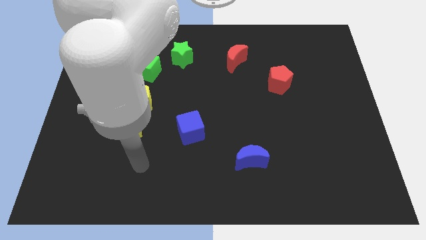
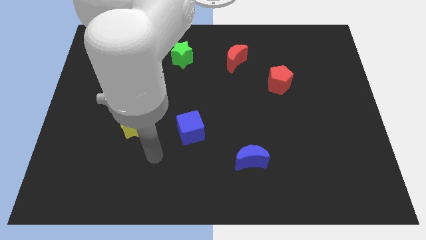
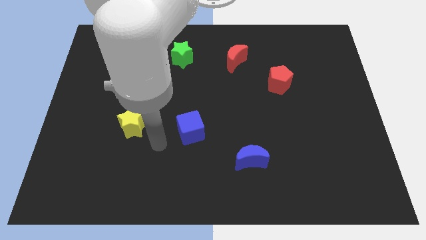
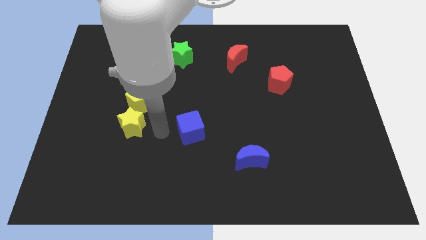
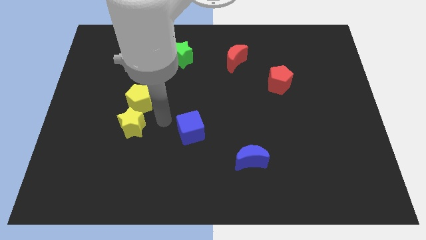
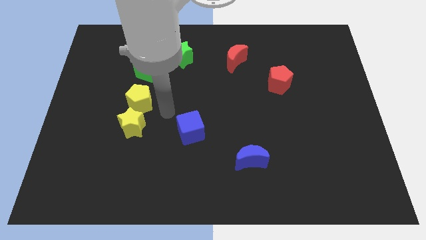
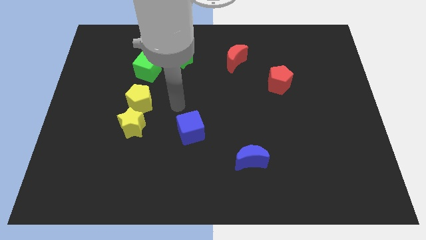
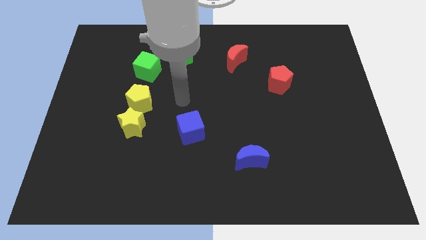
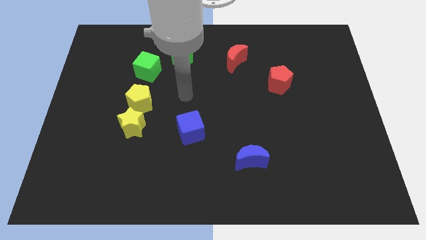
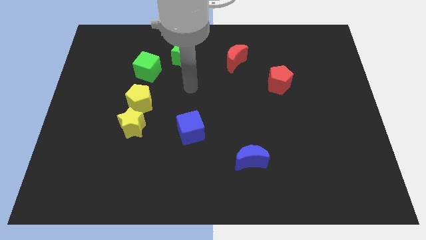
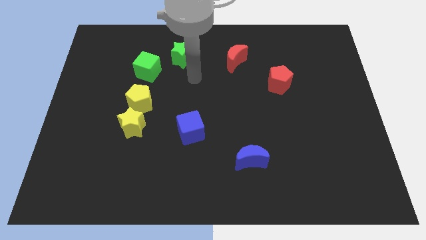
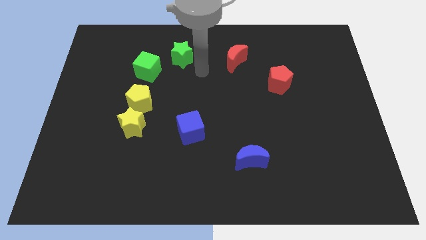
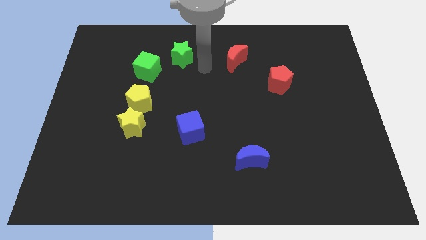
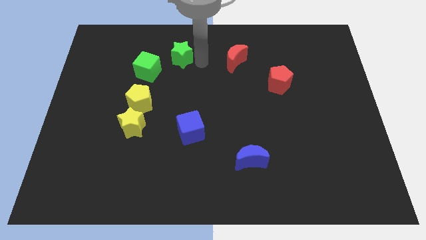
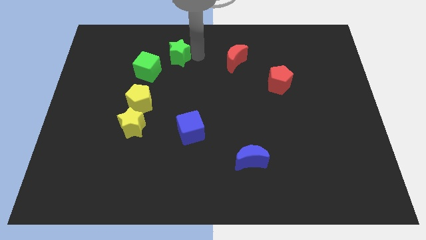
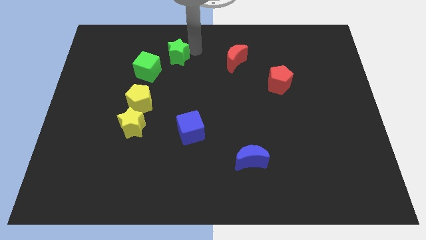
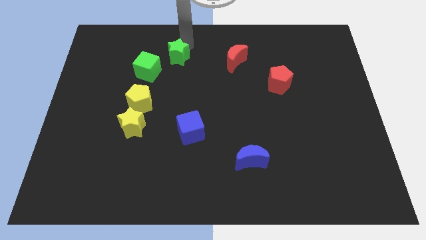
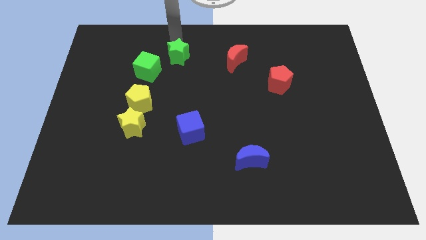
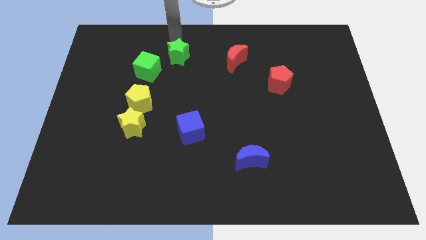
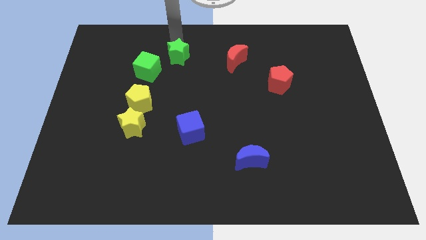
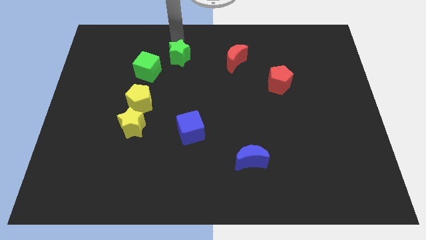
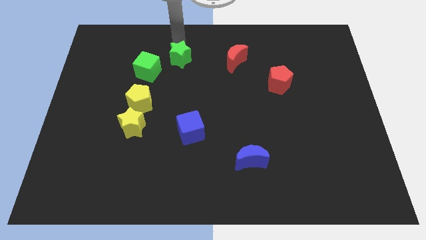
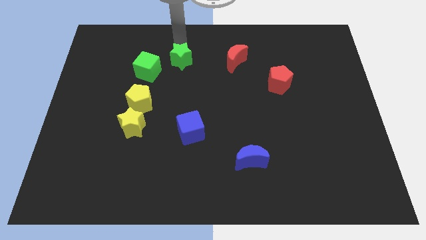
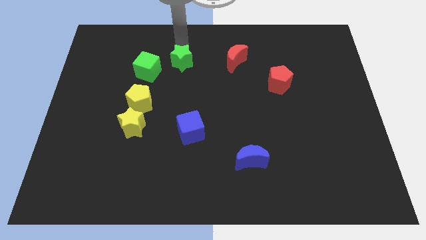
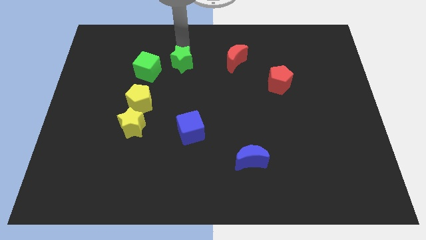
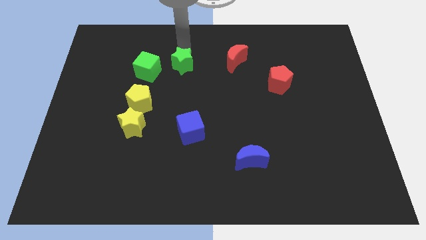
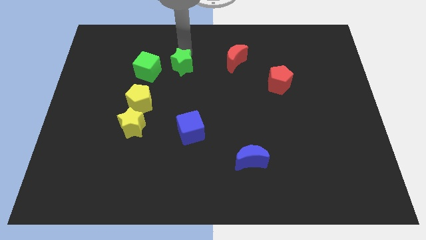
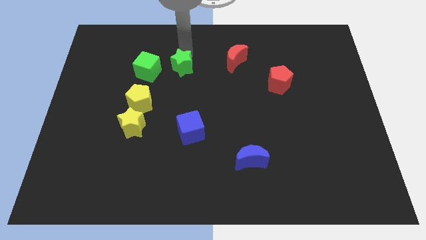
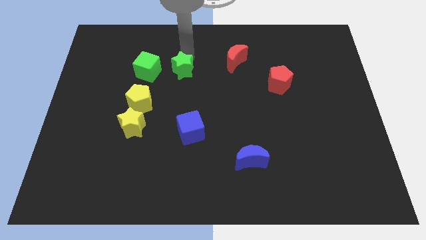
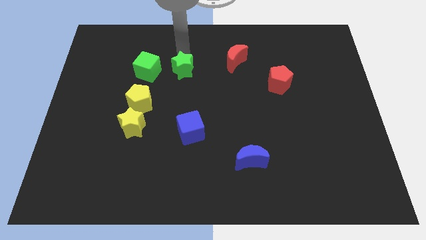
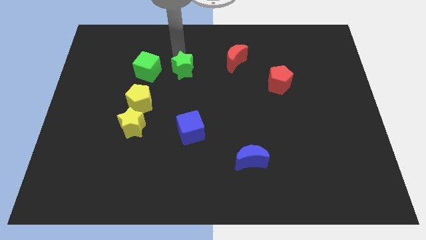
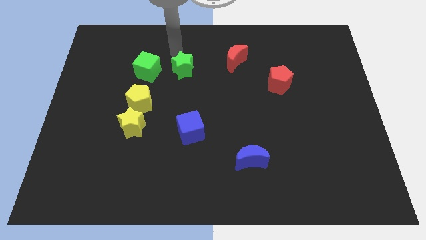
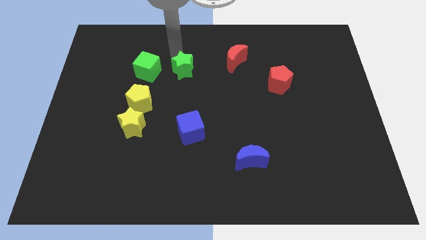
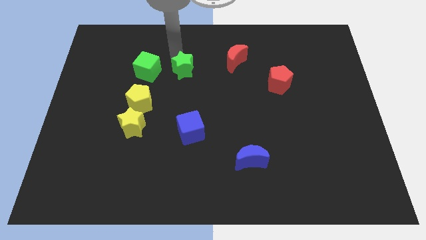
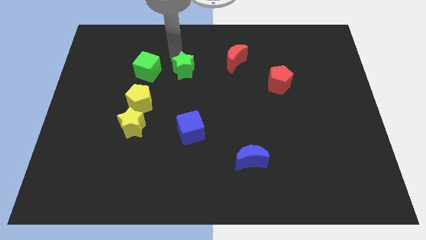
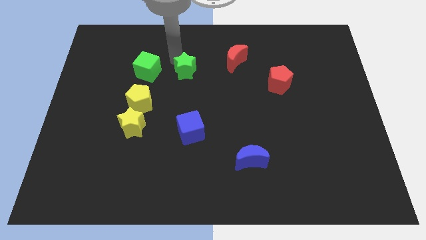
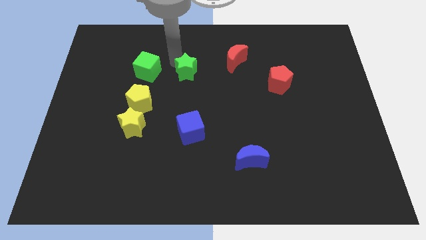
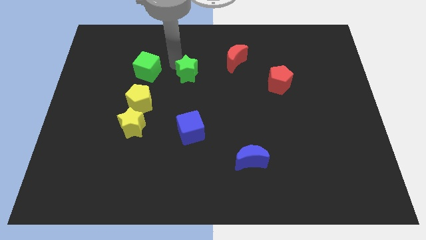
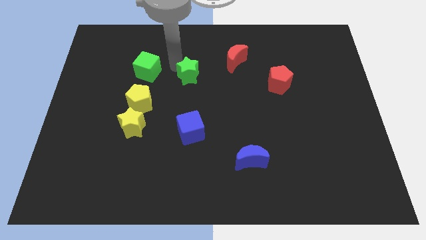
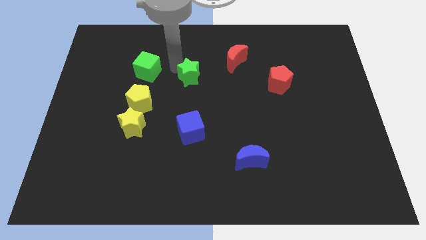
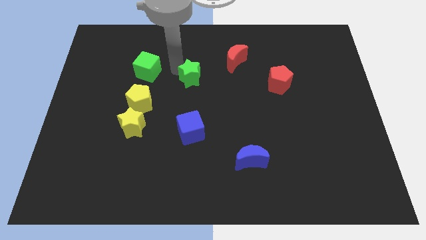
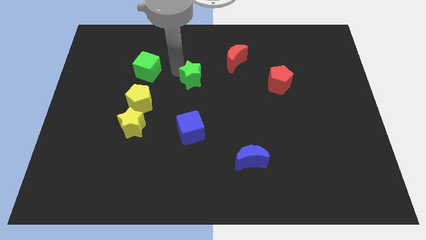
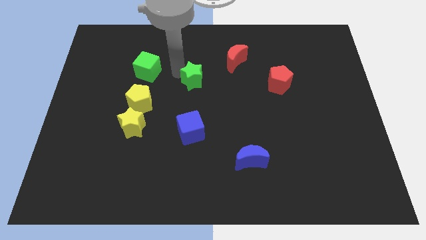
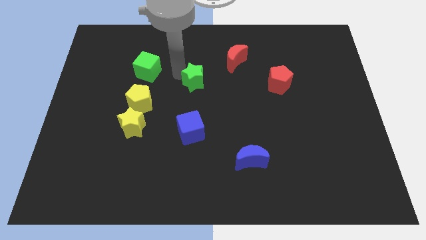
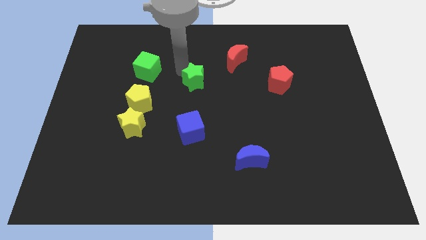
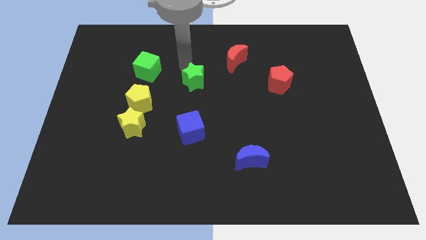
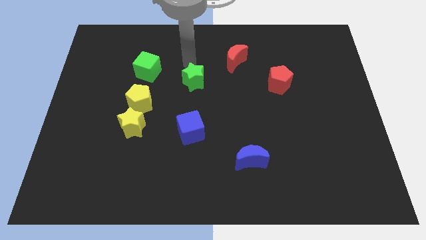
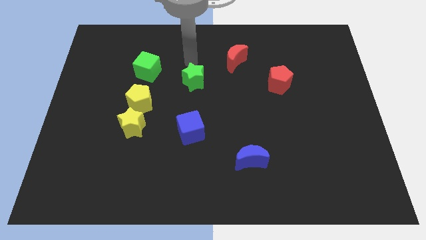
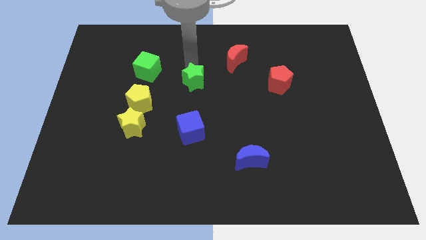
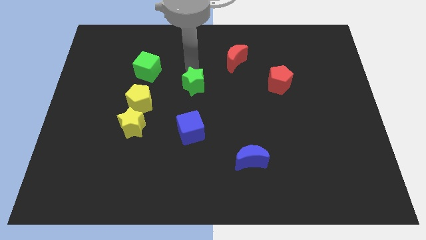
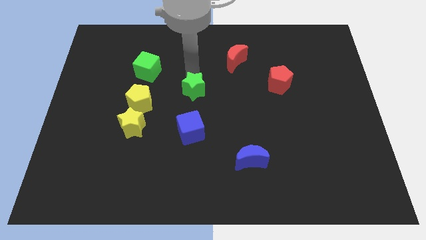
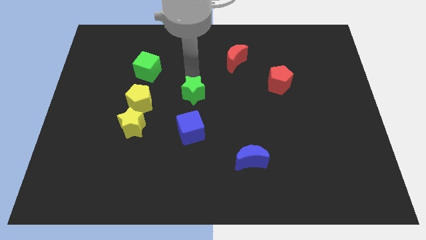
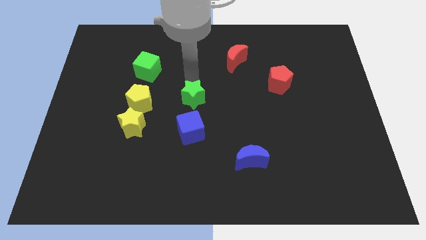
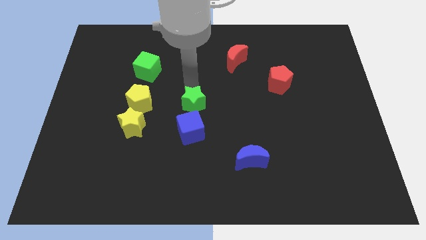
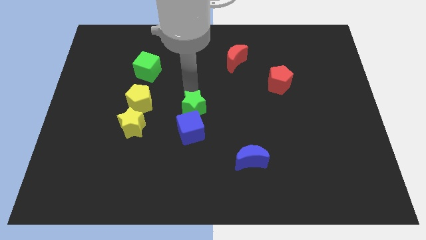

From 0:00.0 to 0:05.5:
push the green star towards the blue cube

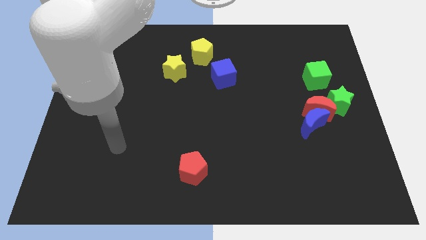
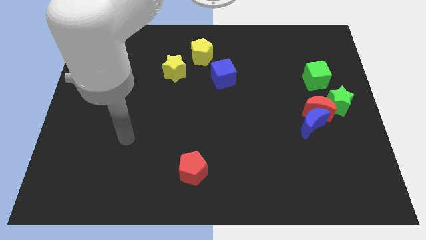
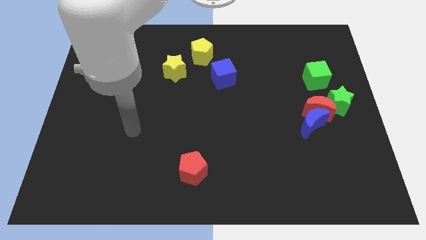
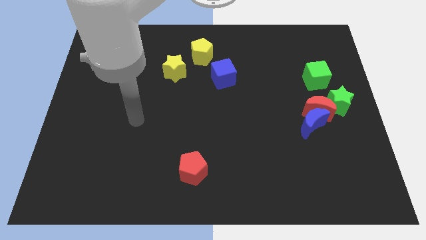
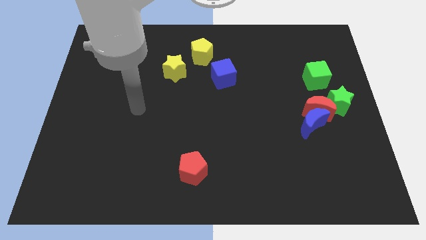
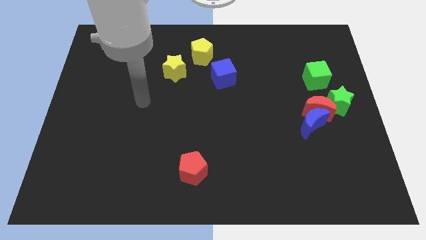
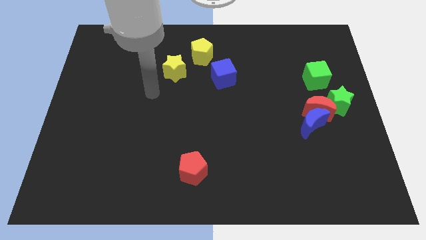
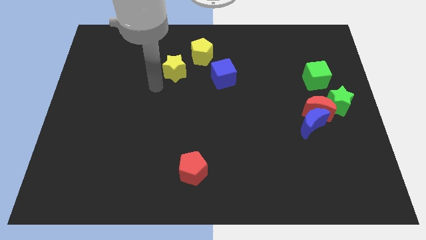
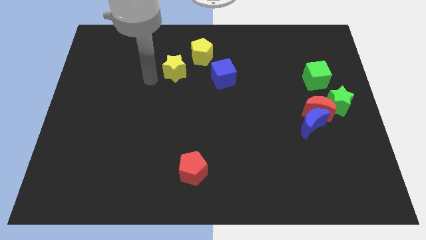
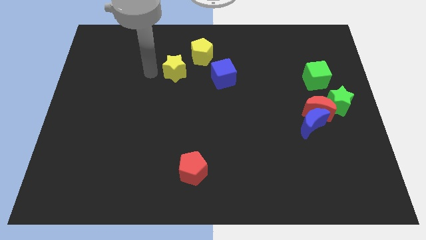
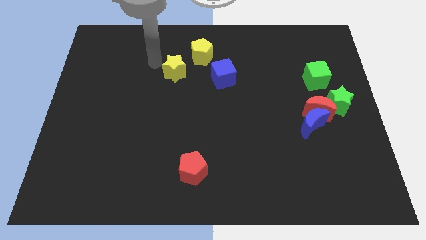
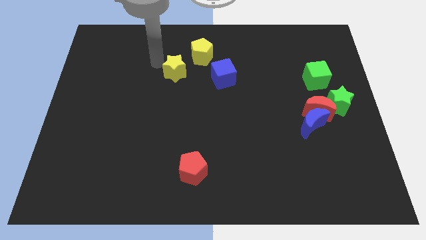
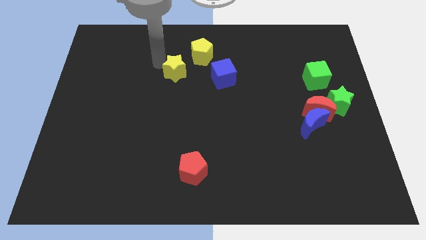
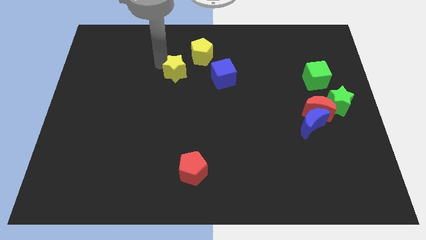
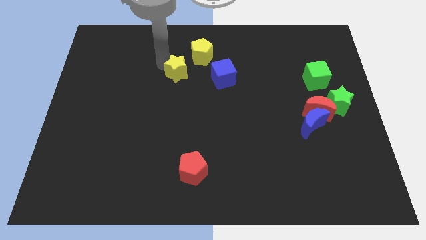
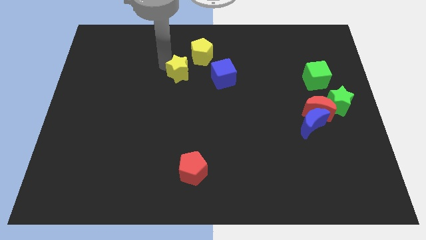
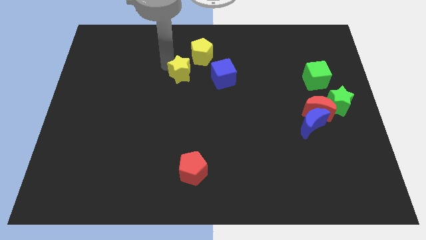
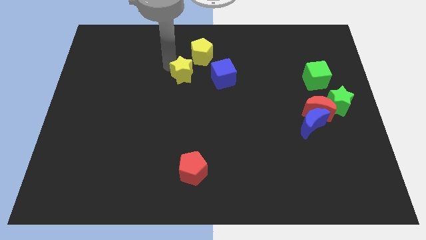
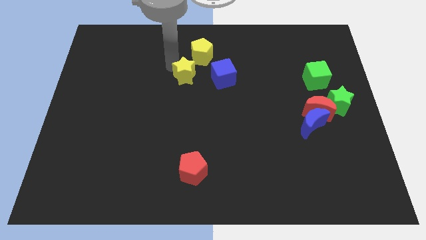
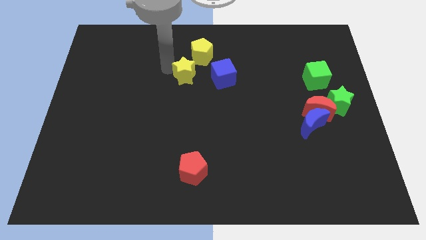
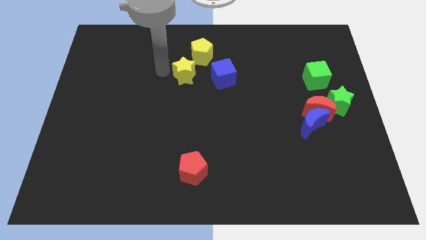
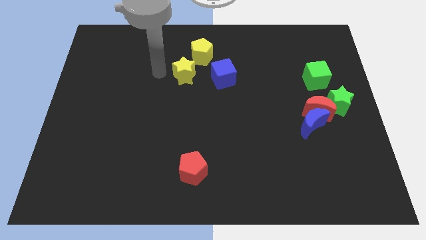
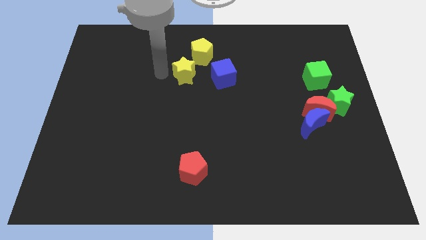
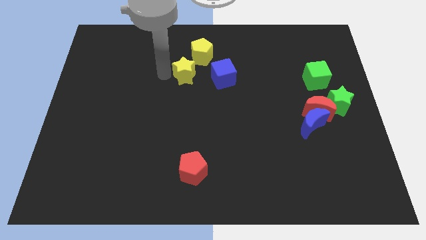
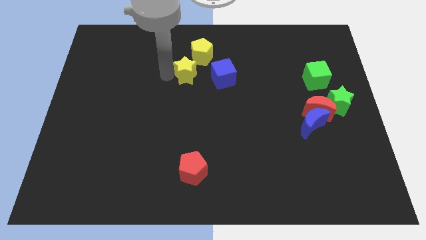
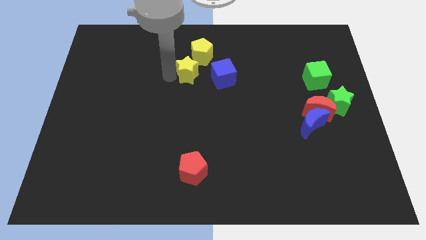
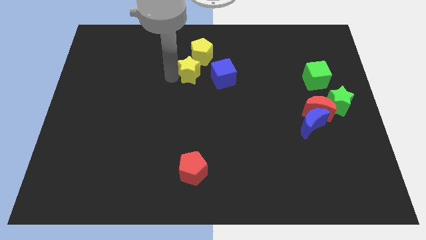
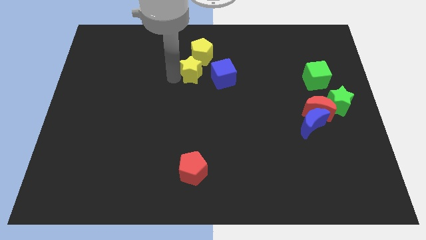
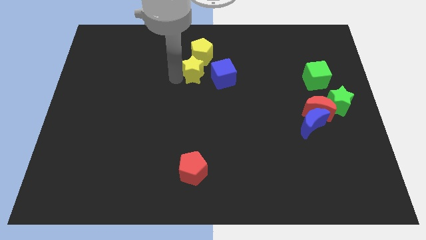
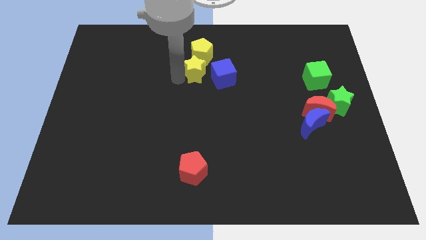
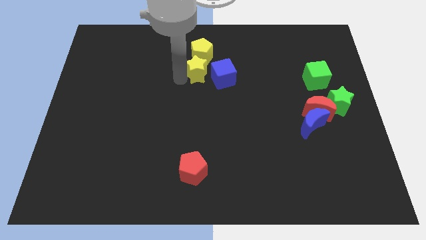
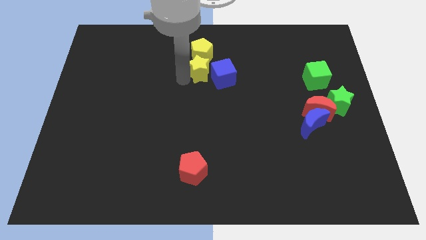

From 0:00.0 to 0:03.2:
move the yellow star next to the blue cube
